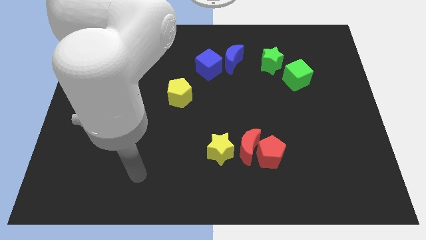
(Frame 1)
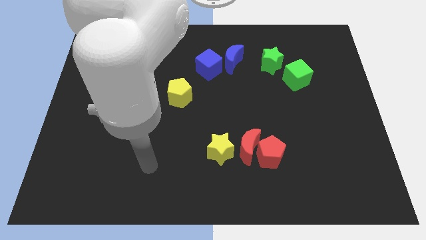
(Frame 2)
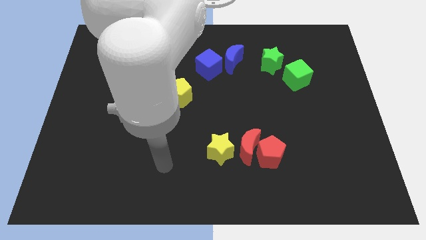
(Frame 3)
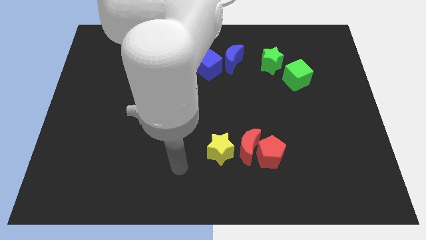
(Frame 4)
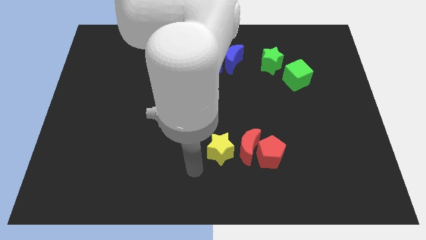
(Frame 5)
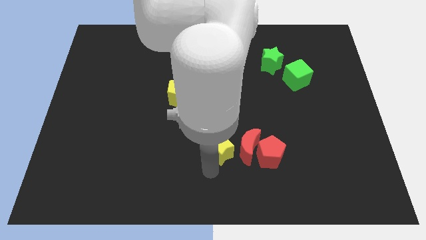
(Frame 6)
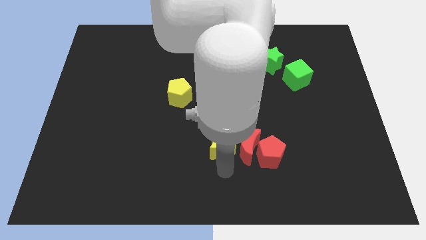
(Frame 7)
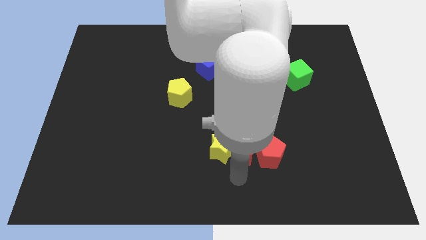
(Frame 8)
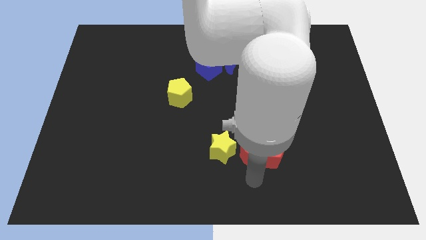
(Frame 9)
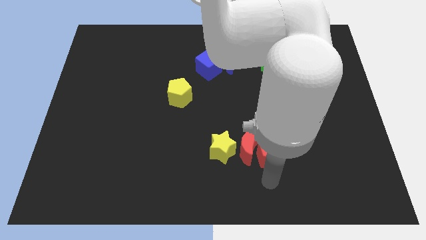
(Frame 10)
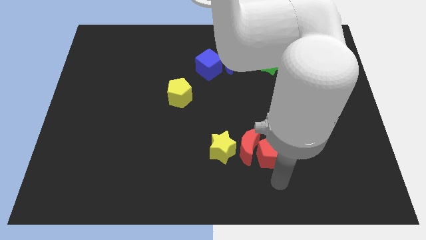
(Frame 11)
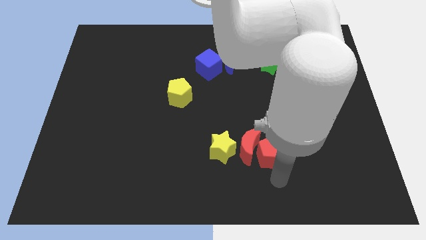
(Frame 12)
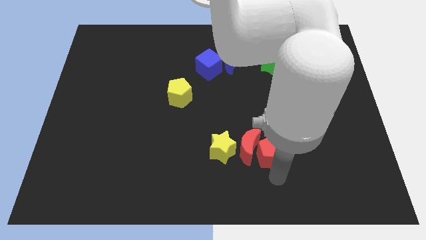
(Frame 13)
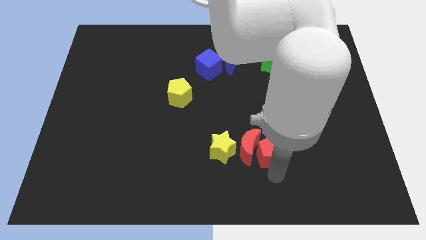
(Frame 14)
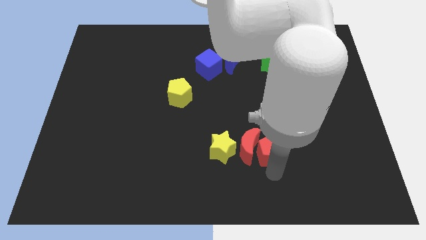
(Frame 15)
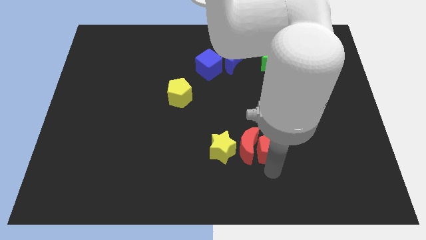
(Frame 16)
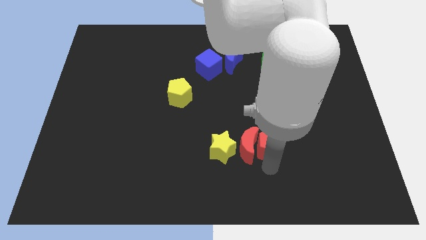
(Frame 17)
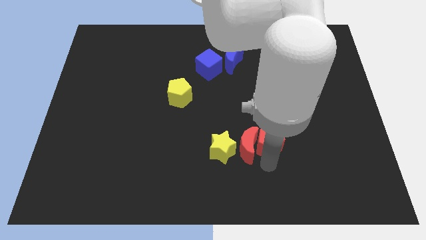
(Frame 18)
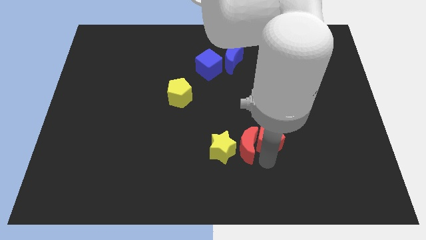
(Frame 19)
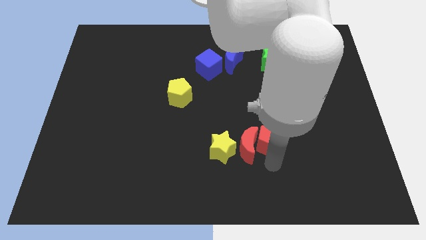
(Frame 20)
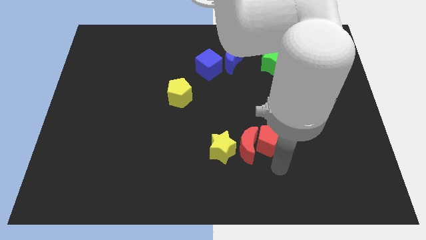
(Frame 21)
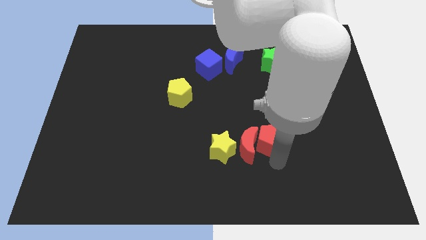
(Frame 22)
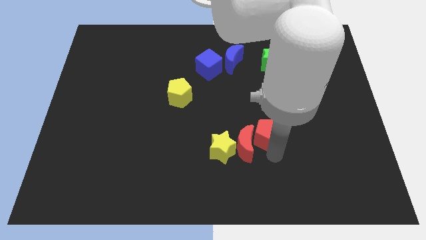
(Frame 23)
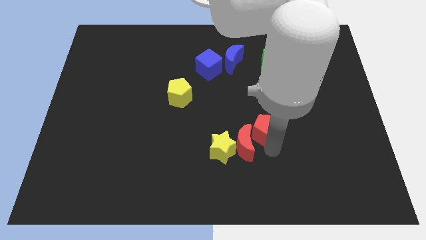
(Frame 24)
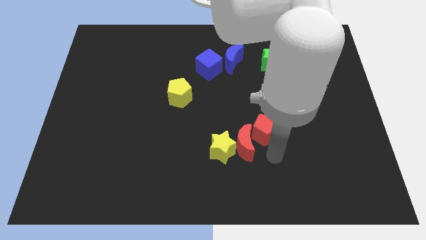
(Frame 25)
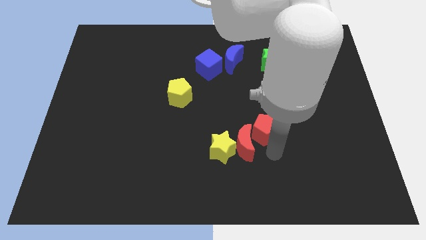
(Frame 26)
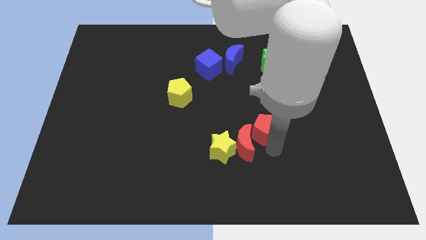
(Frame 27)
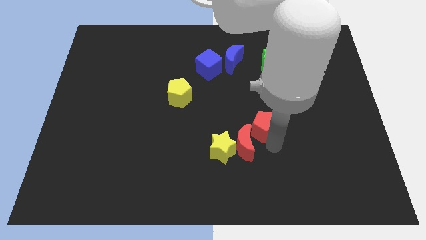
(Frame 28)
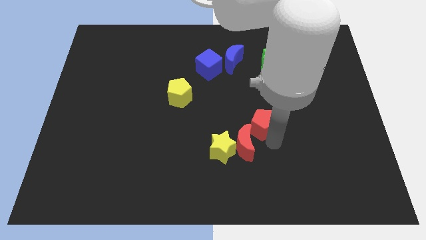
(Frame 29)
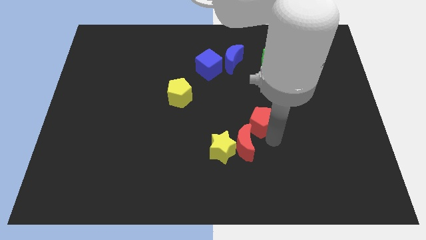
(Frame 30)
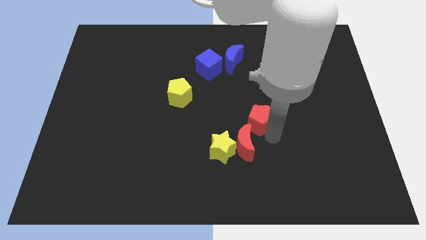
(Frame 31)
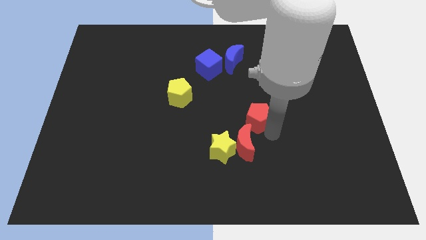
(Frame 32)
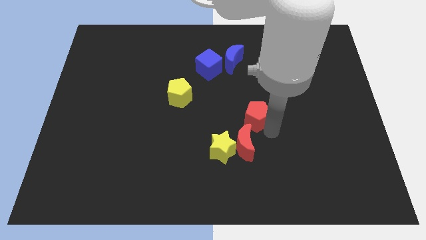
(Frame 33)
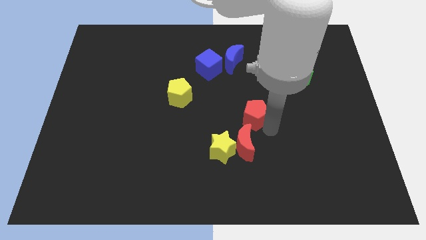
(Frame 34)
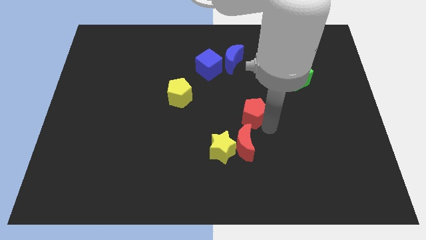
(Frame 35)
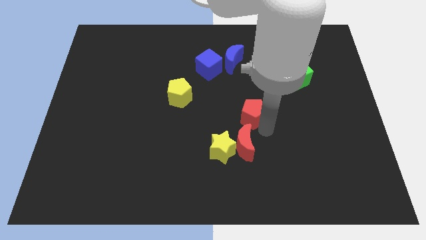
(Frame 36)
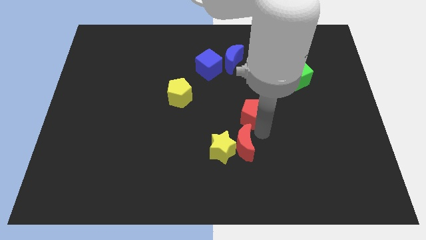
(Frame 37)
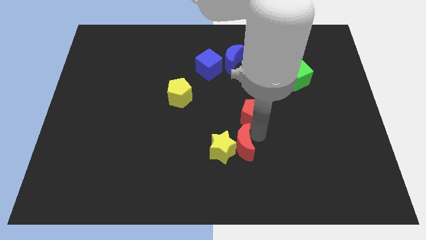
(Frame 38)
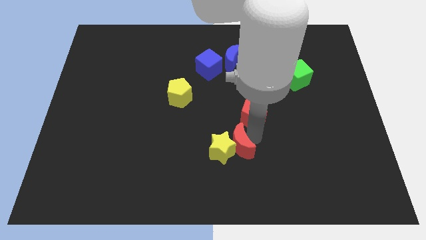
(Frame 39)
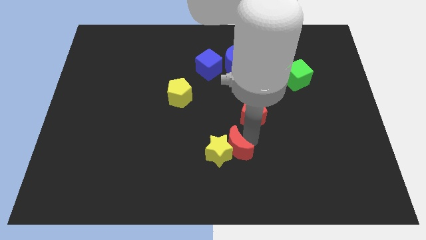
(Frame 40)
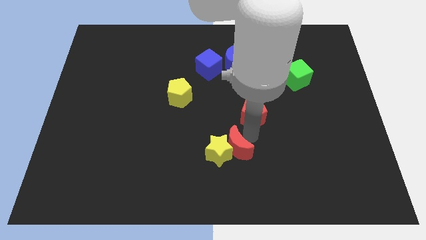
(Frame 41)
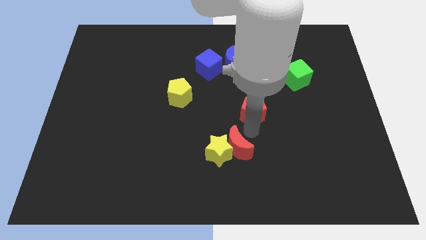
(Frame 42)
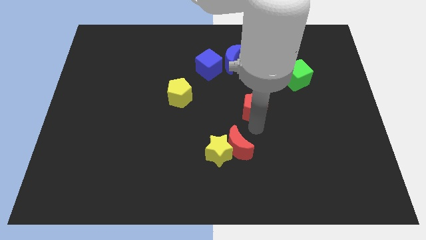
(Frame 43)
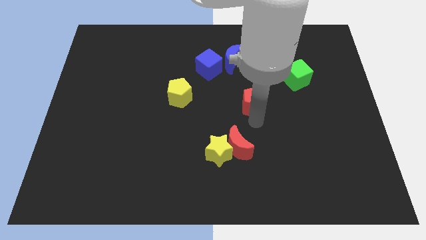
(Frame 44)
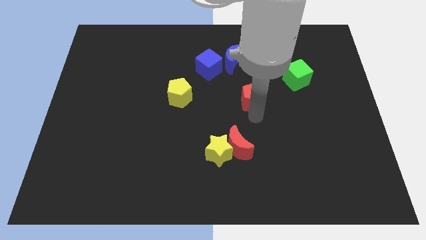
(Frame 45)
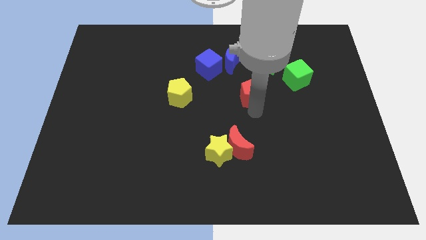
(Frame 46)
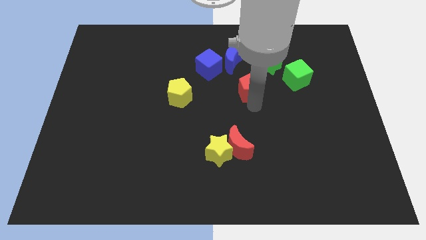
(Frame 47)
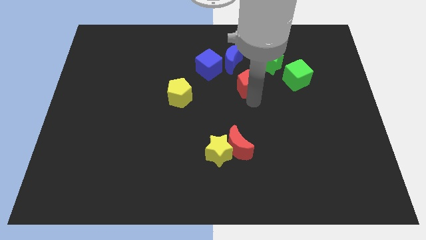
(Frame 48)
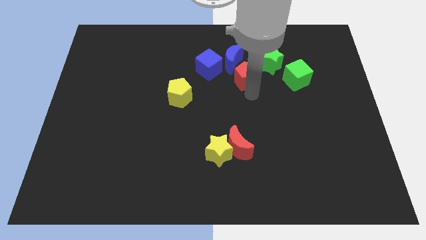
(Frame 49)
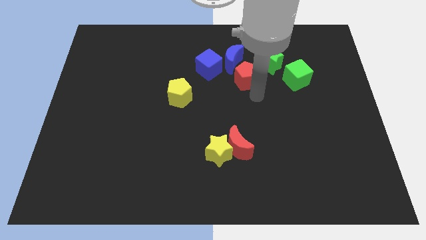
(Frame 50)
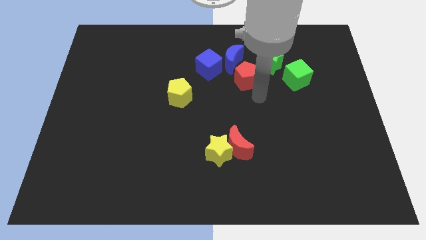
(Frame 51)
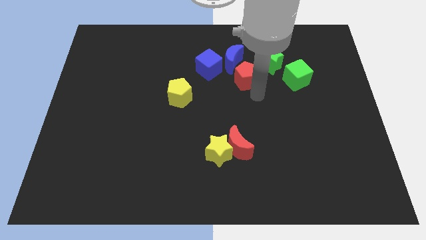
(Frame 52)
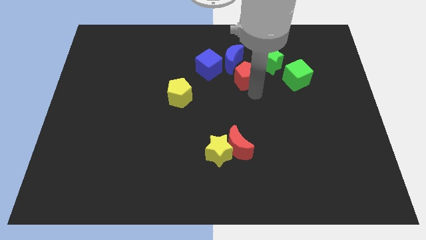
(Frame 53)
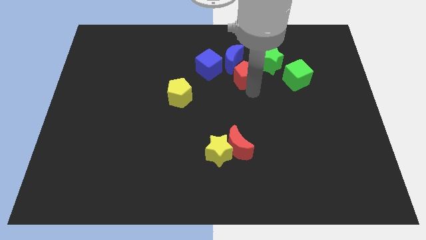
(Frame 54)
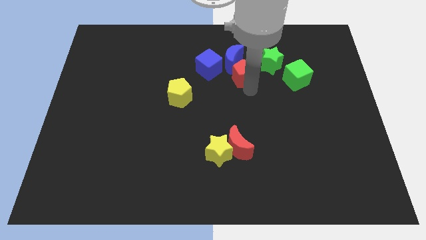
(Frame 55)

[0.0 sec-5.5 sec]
put the red pentagon next to the blue moon

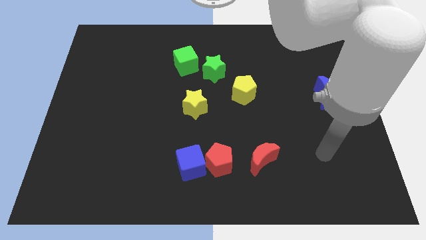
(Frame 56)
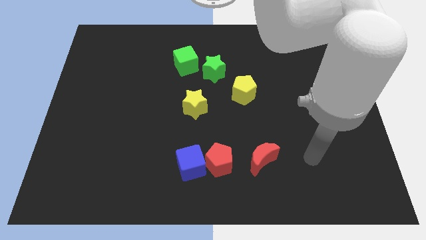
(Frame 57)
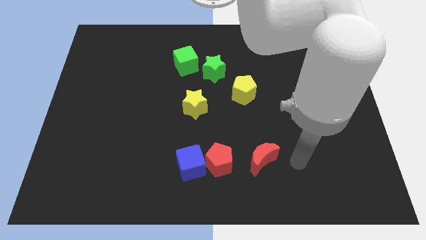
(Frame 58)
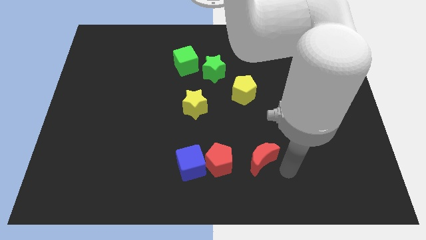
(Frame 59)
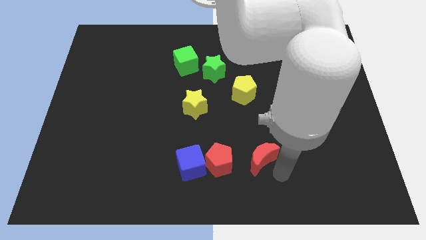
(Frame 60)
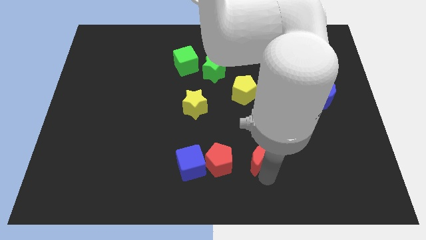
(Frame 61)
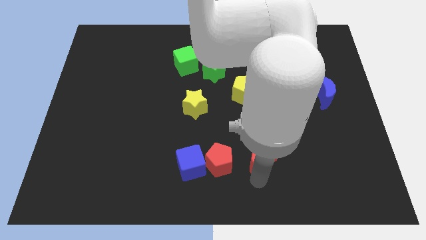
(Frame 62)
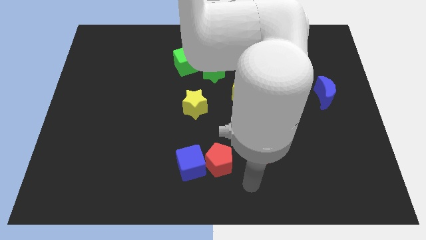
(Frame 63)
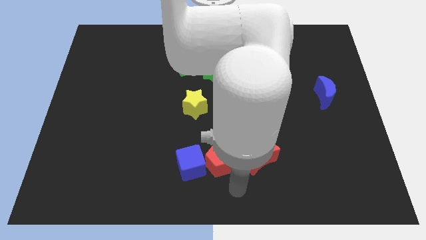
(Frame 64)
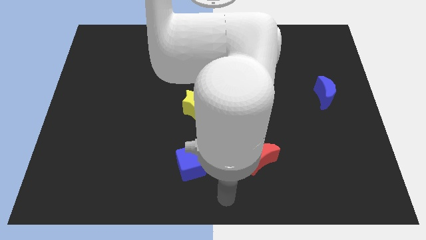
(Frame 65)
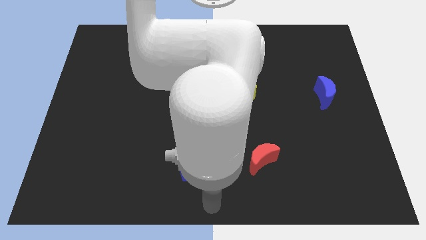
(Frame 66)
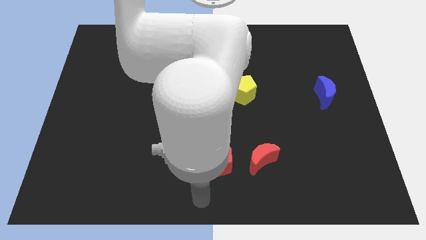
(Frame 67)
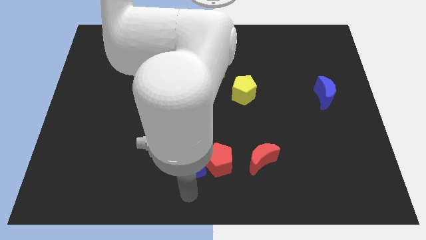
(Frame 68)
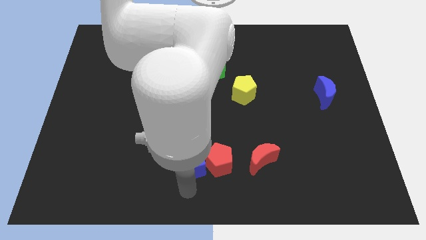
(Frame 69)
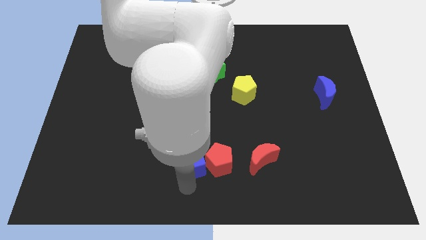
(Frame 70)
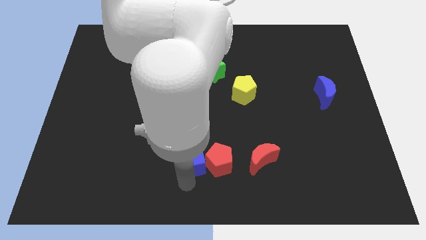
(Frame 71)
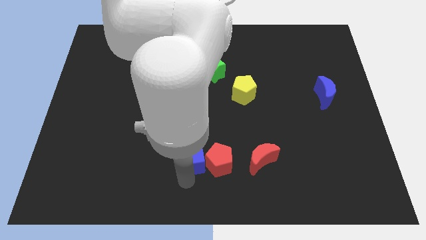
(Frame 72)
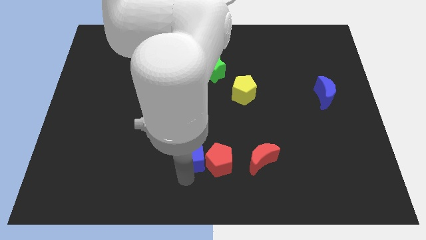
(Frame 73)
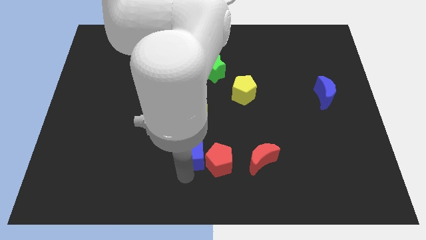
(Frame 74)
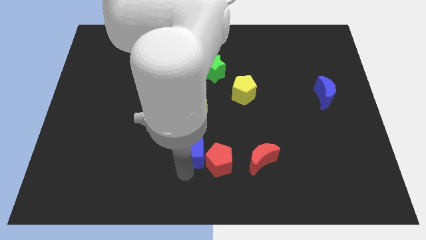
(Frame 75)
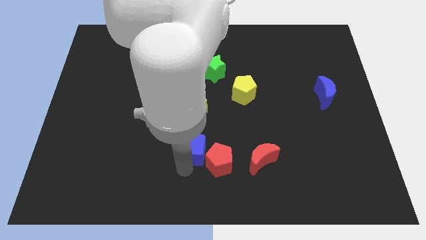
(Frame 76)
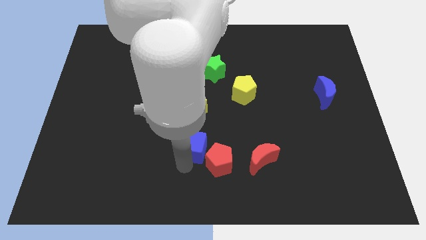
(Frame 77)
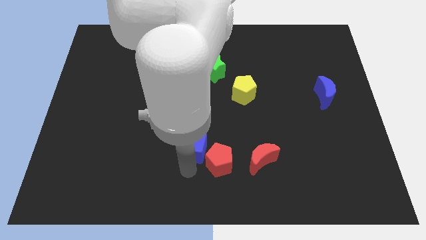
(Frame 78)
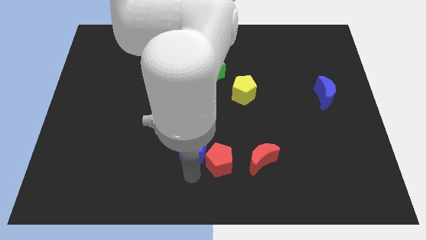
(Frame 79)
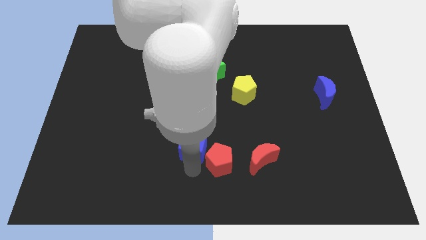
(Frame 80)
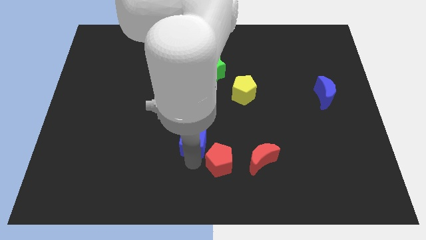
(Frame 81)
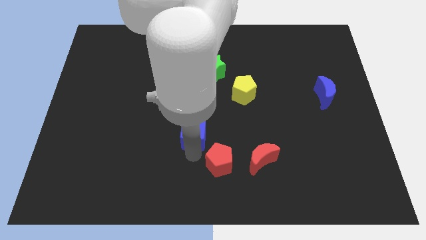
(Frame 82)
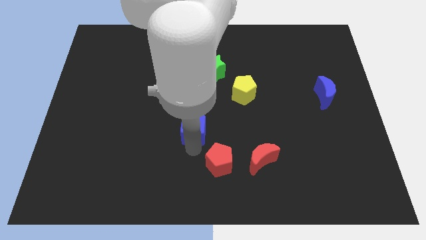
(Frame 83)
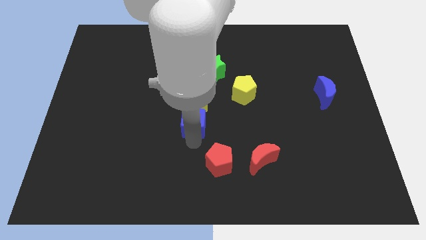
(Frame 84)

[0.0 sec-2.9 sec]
put the blue cube next to the yellow star
